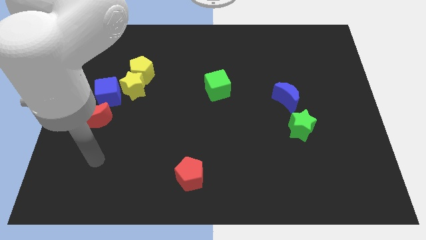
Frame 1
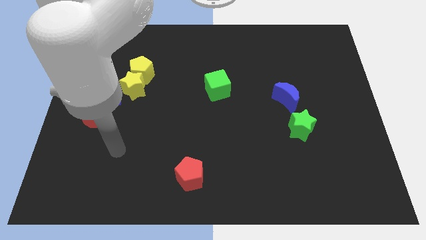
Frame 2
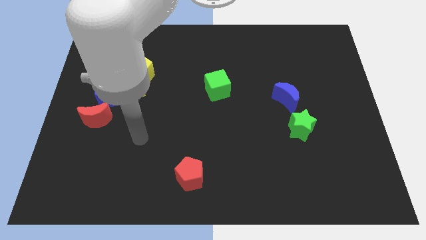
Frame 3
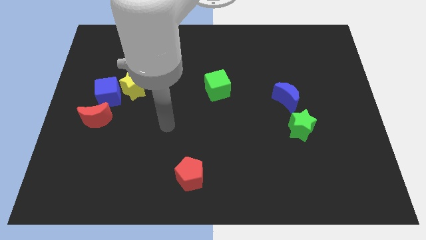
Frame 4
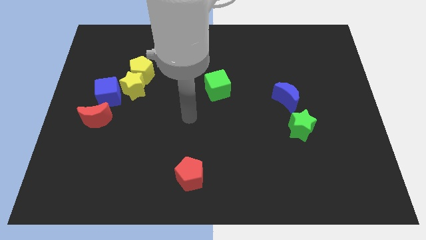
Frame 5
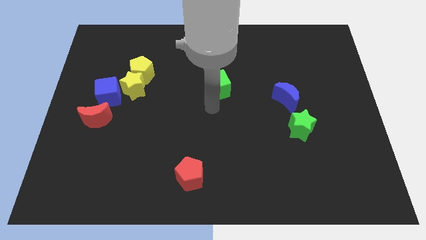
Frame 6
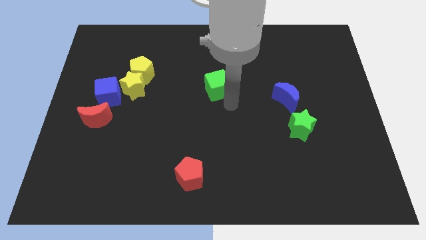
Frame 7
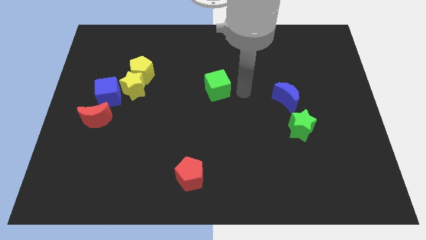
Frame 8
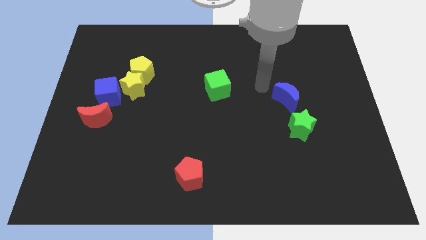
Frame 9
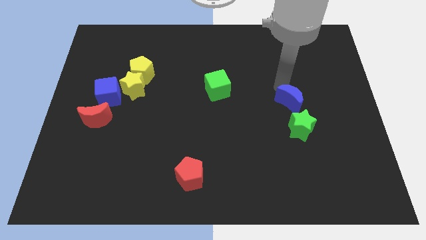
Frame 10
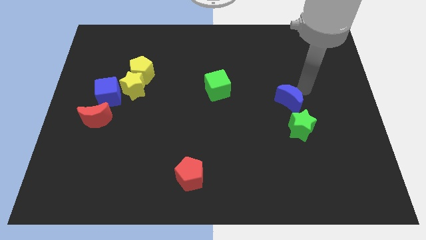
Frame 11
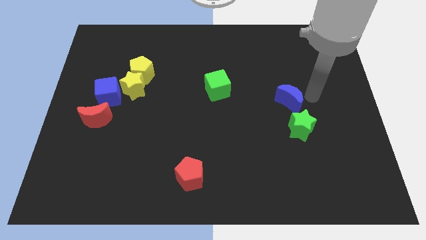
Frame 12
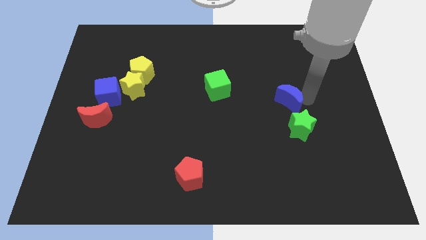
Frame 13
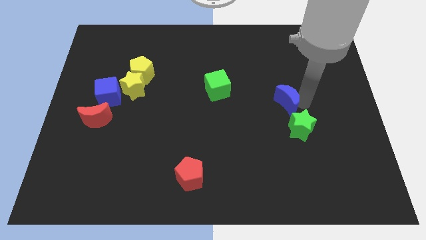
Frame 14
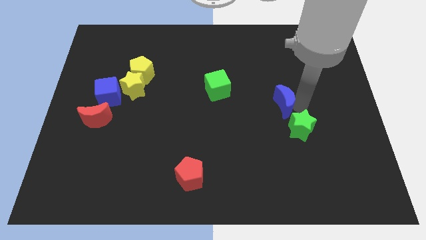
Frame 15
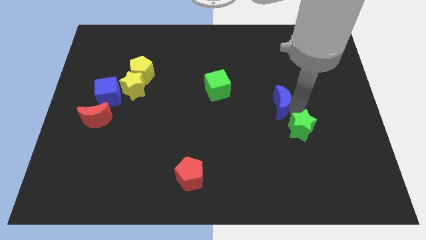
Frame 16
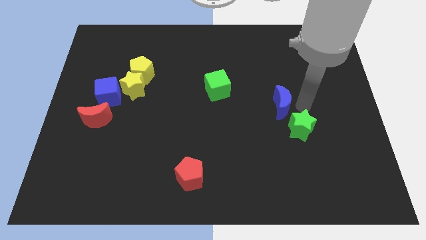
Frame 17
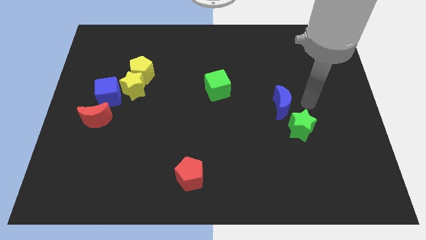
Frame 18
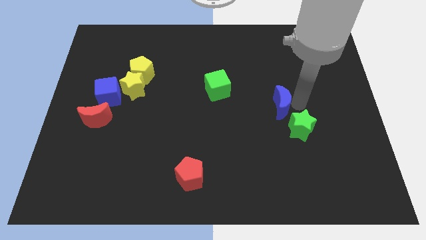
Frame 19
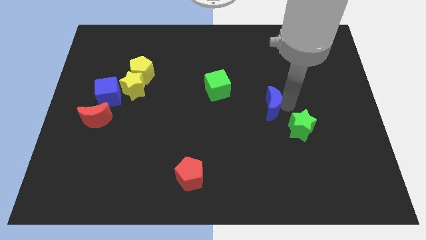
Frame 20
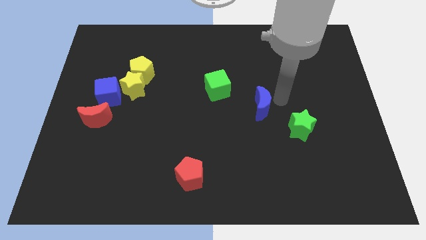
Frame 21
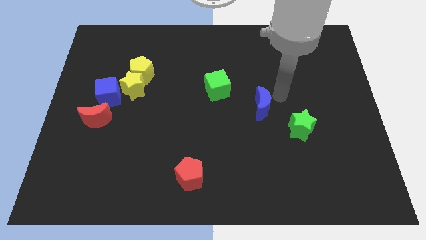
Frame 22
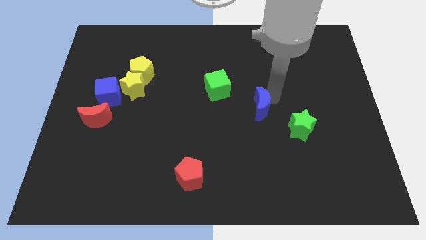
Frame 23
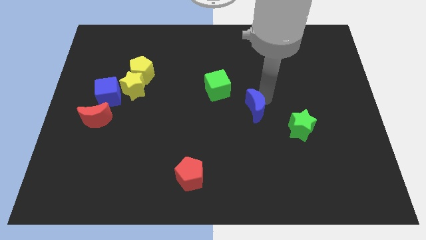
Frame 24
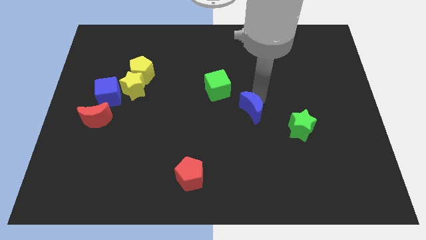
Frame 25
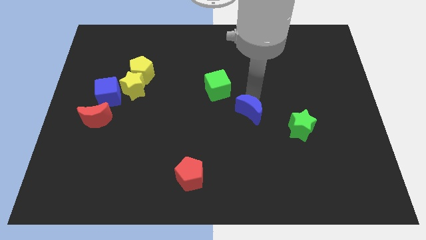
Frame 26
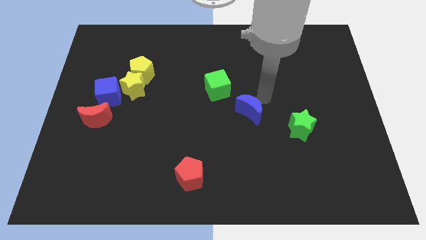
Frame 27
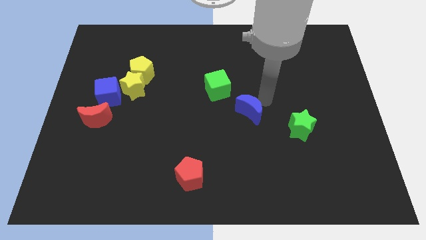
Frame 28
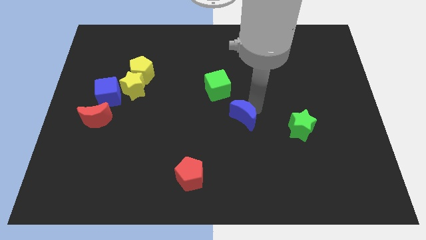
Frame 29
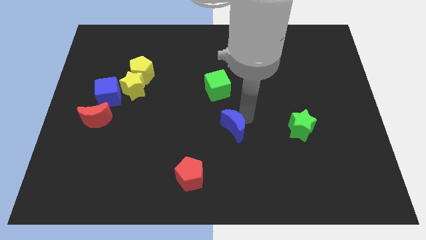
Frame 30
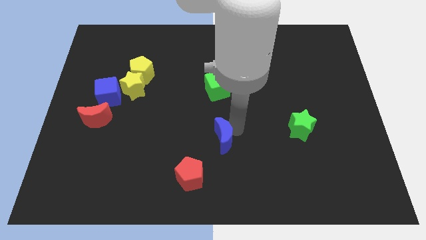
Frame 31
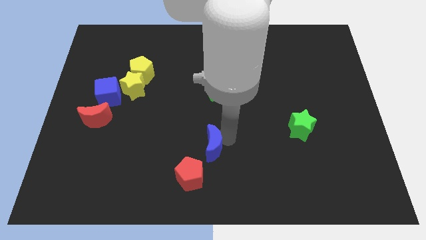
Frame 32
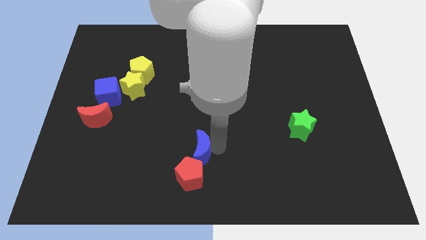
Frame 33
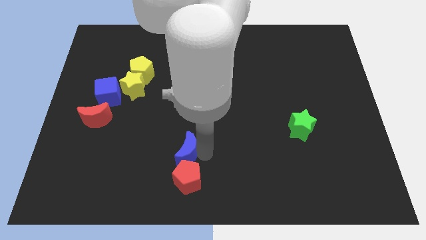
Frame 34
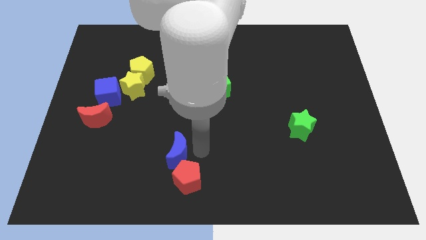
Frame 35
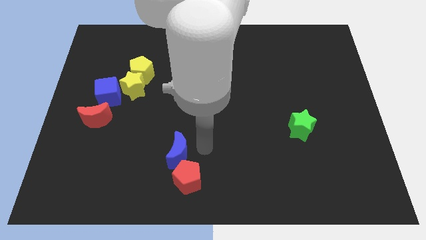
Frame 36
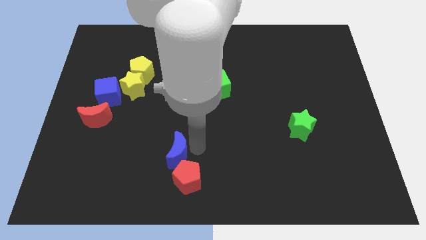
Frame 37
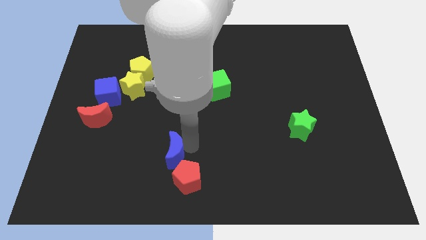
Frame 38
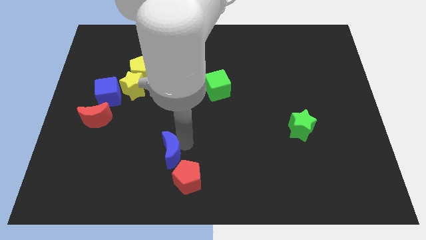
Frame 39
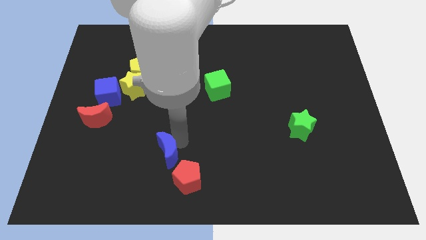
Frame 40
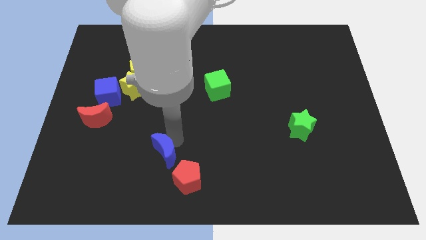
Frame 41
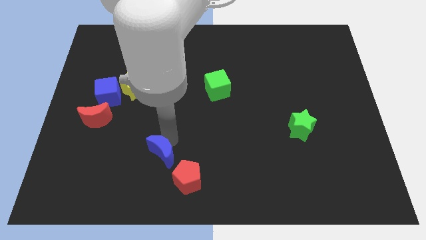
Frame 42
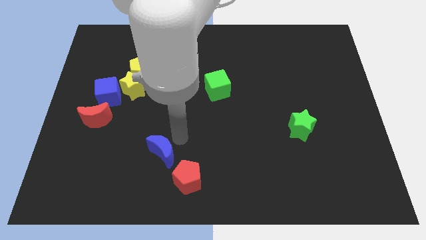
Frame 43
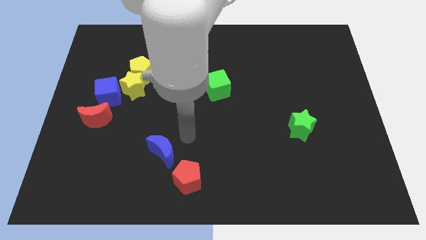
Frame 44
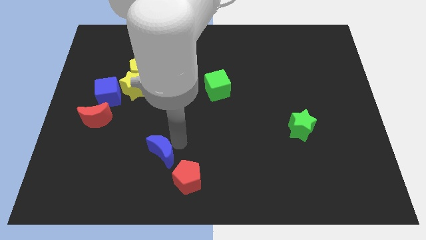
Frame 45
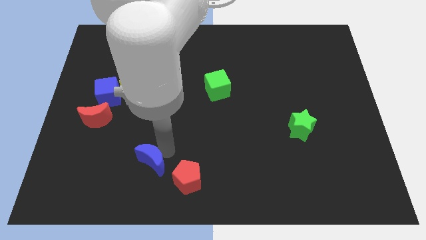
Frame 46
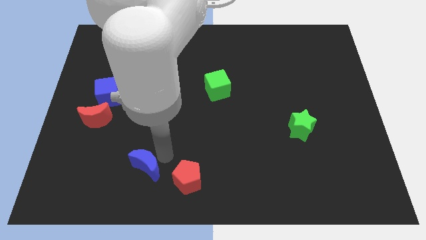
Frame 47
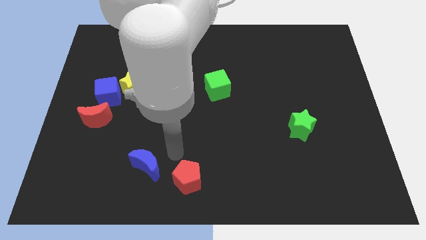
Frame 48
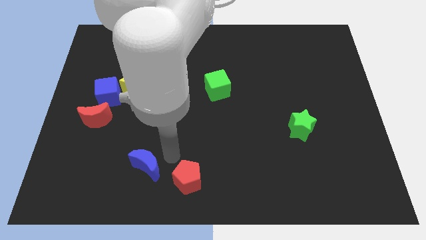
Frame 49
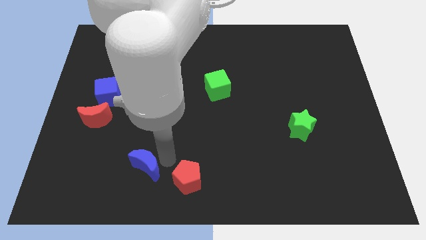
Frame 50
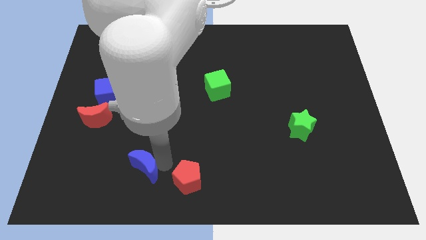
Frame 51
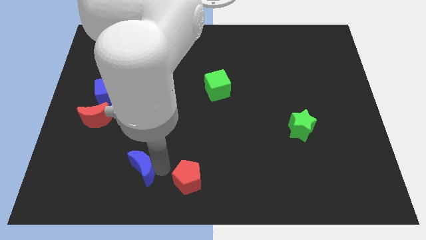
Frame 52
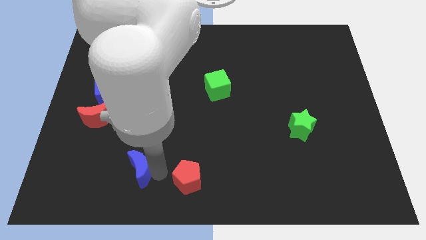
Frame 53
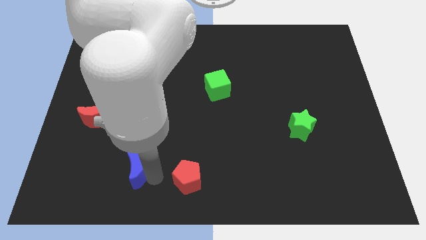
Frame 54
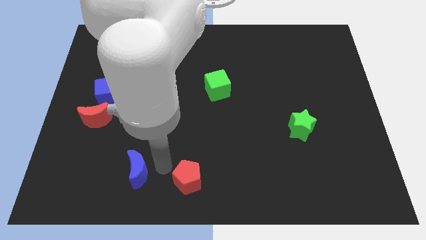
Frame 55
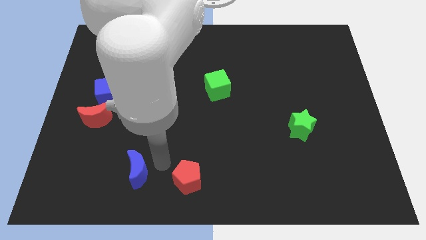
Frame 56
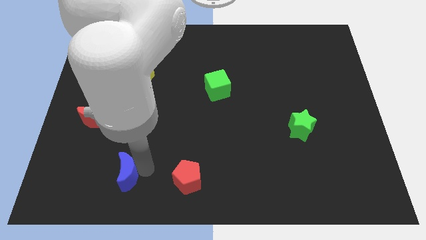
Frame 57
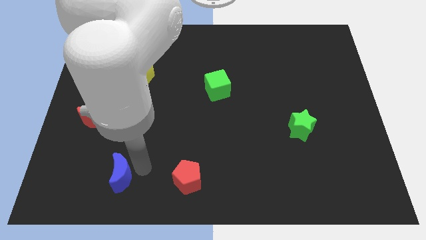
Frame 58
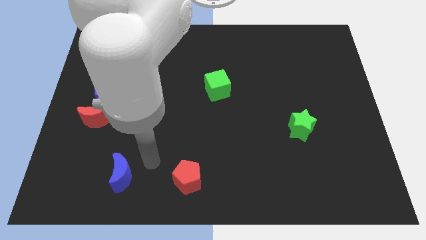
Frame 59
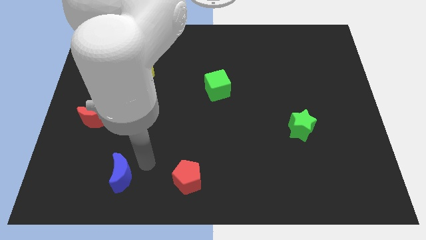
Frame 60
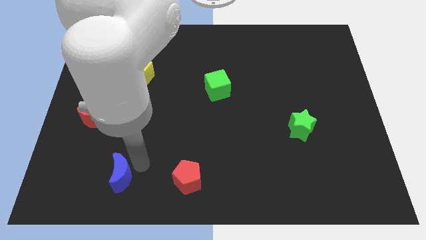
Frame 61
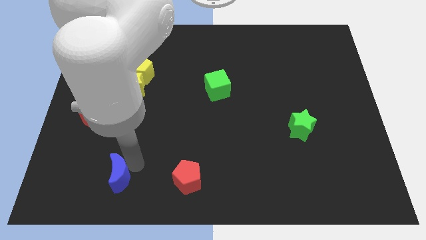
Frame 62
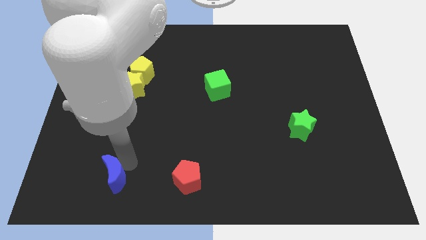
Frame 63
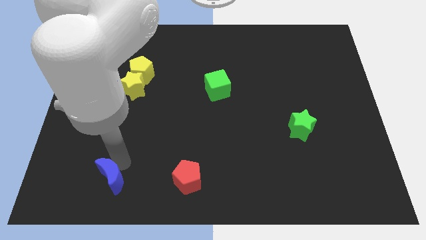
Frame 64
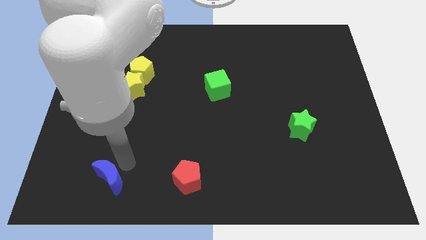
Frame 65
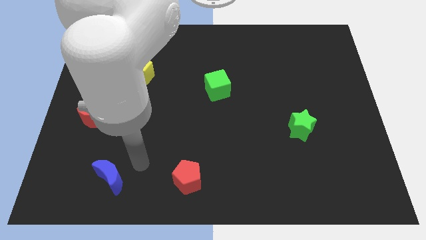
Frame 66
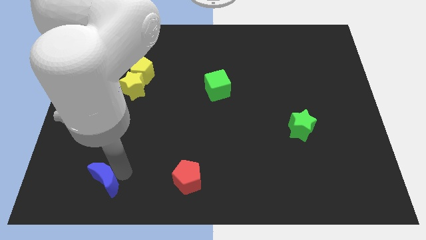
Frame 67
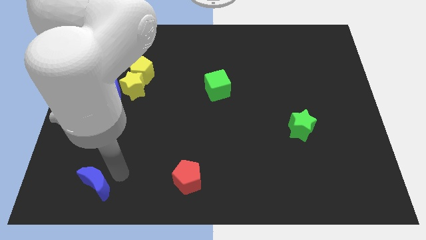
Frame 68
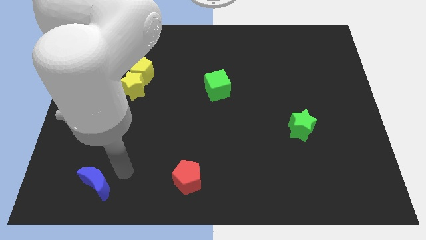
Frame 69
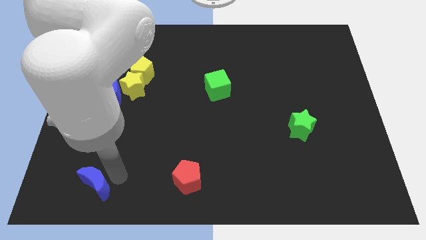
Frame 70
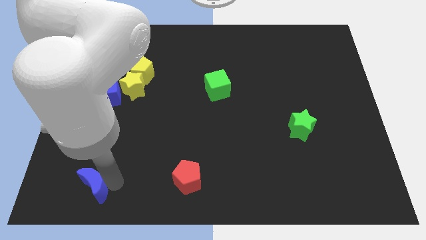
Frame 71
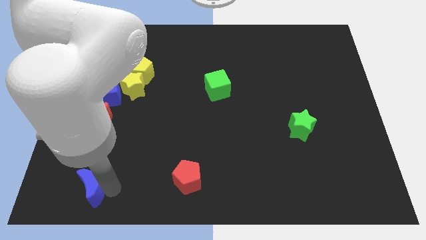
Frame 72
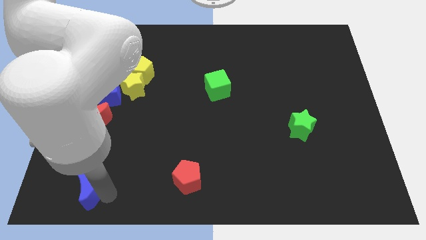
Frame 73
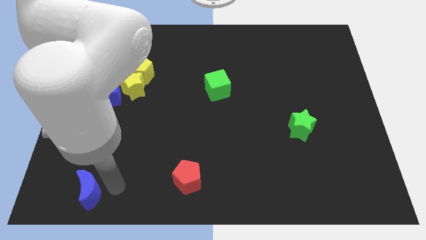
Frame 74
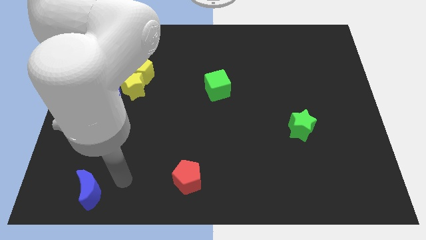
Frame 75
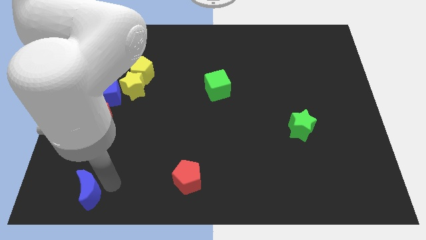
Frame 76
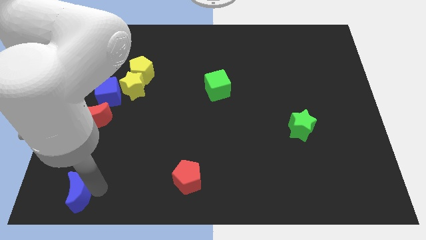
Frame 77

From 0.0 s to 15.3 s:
move the blue moon to the lower left corner
